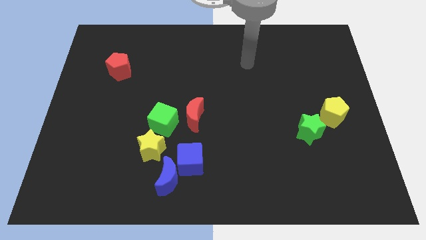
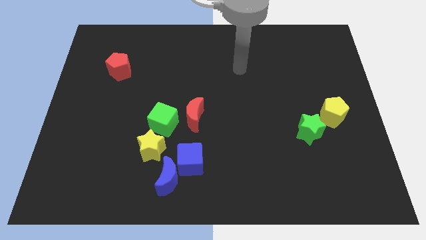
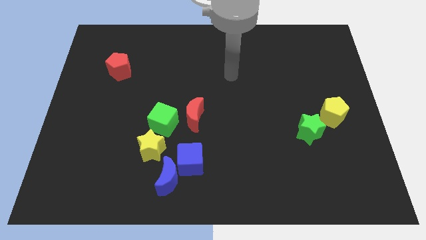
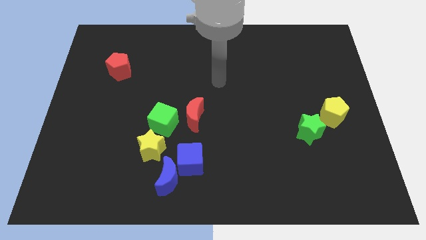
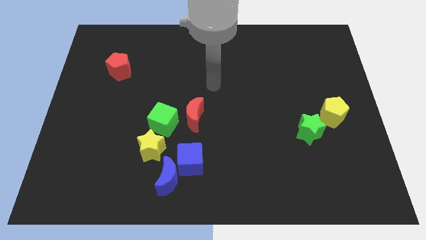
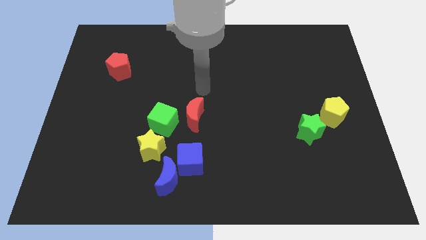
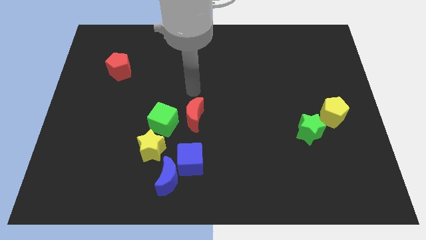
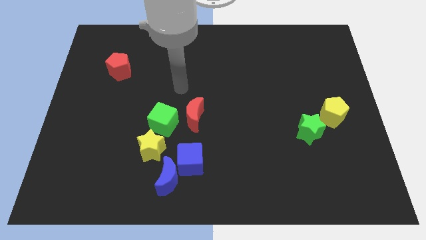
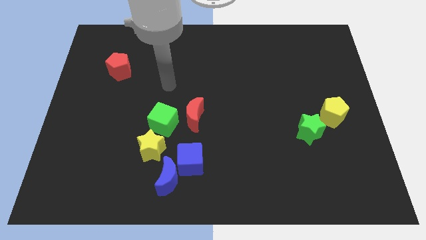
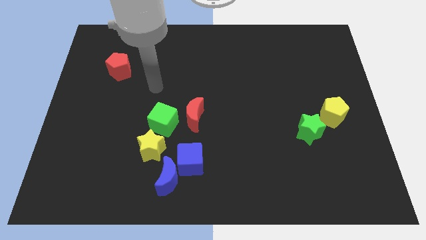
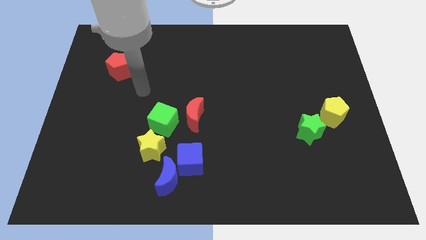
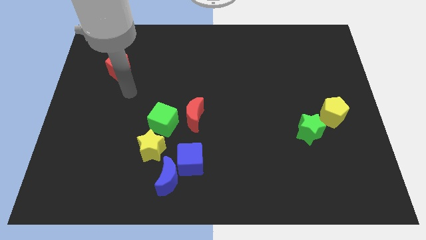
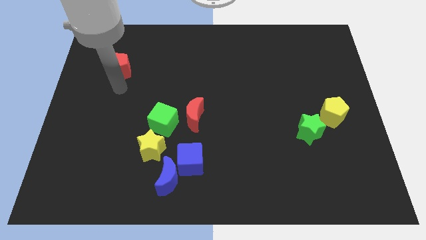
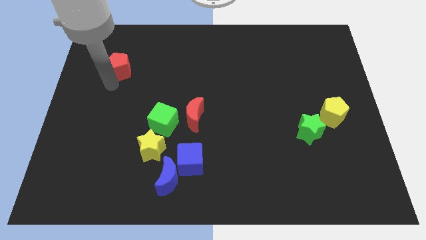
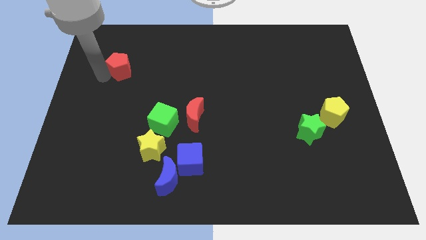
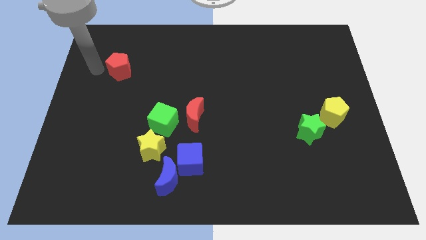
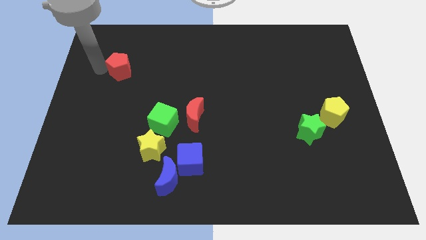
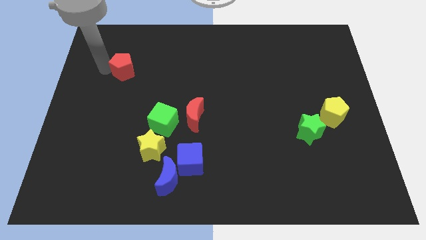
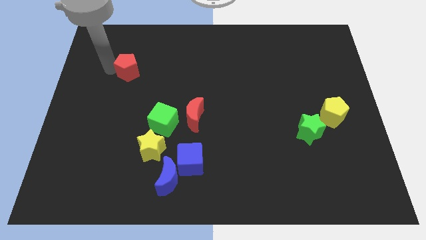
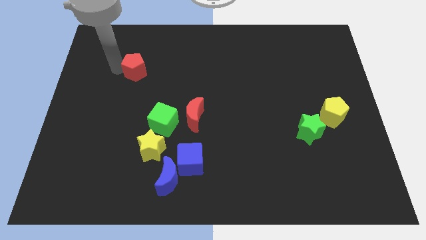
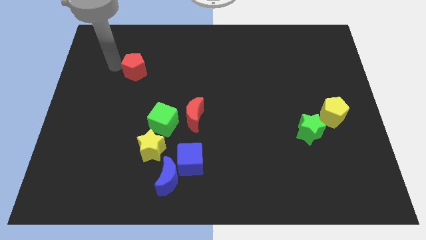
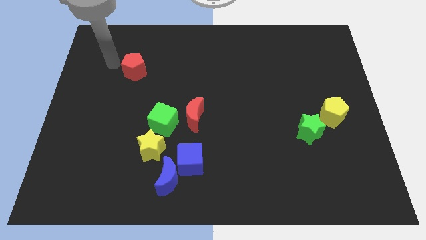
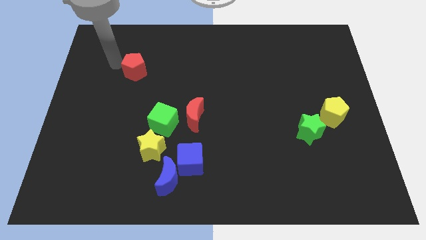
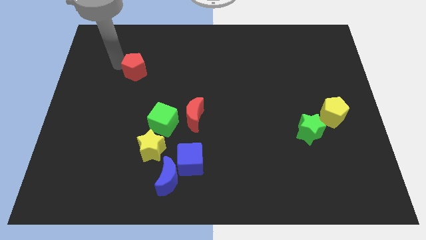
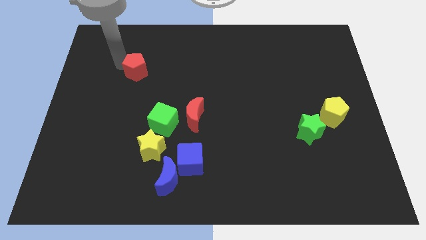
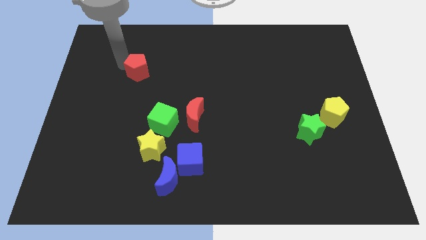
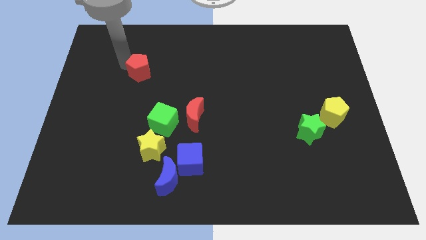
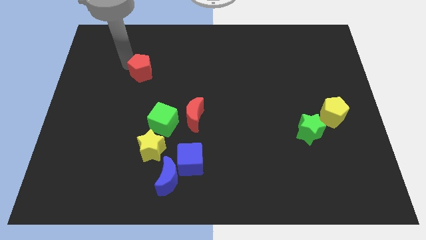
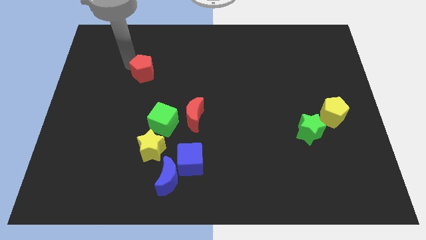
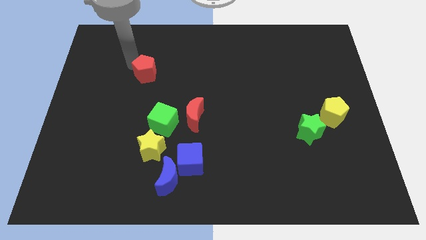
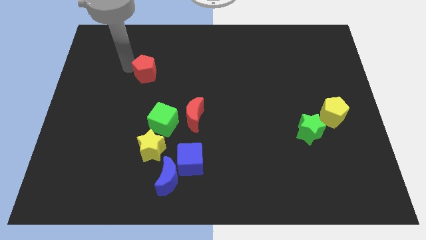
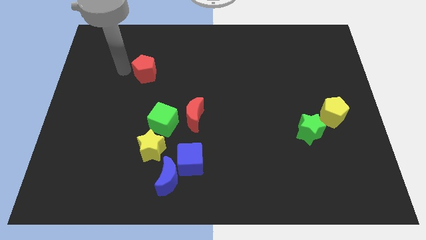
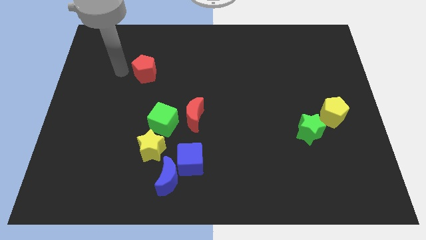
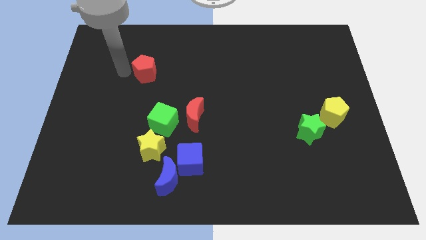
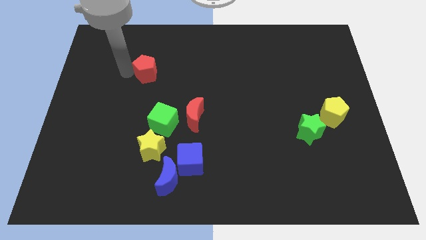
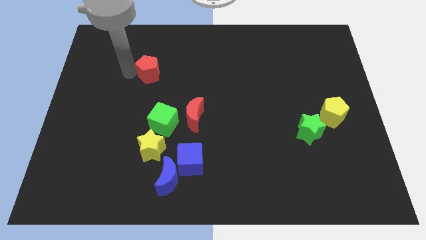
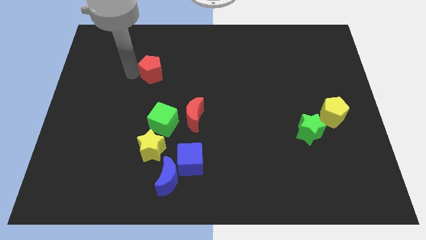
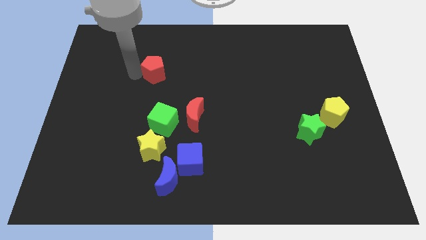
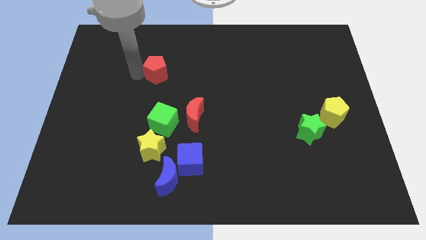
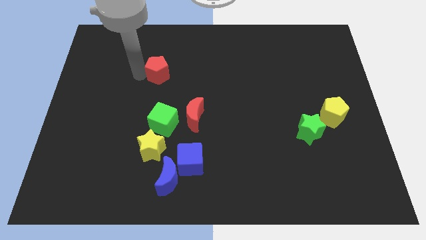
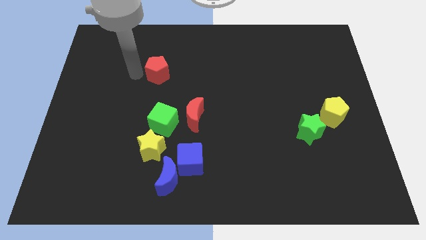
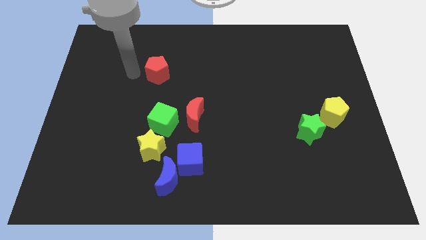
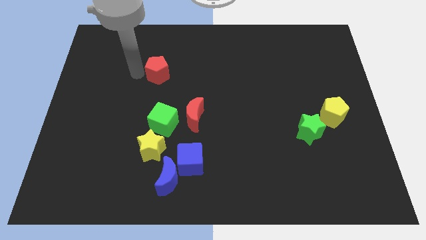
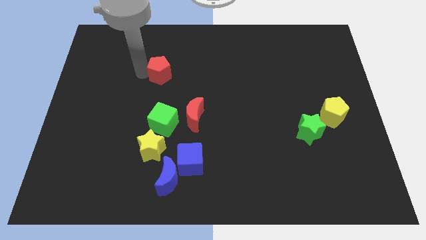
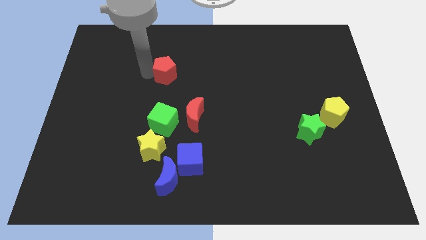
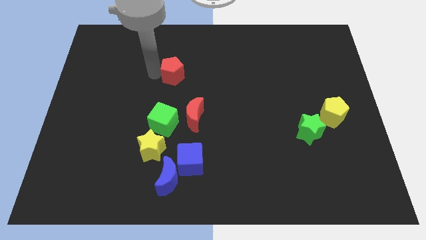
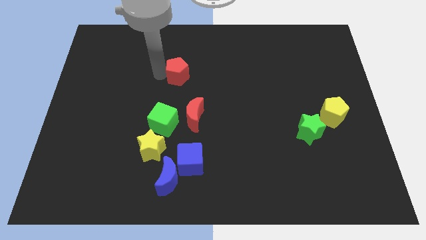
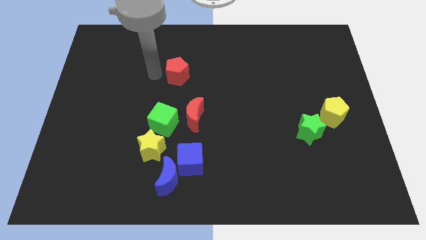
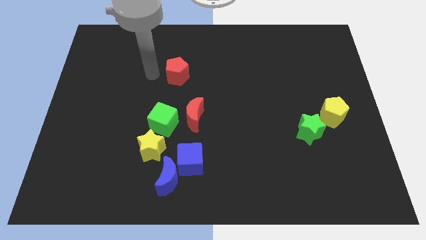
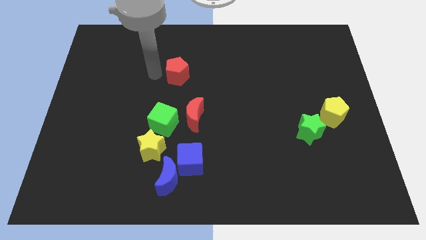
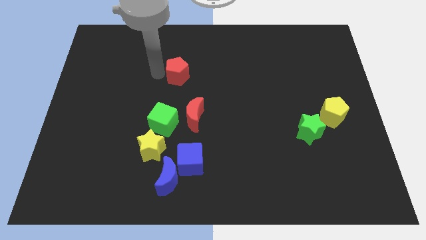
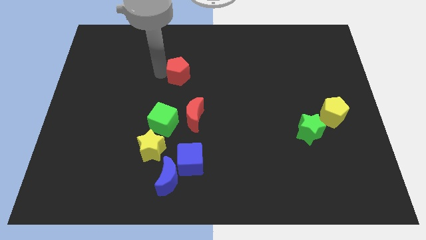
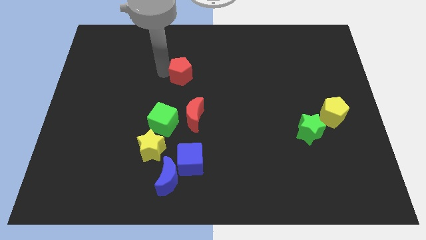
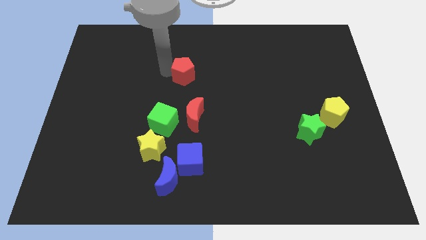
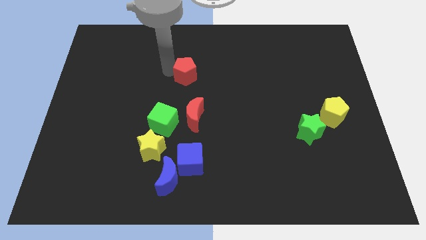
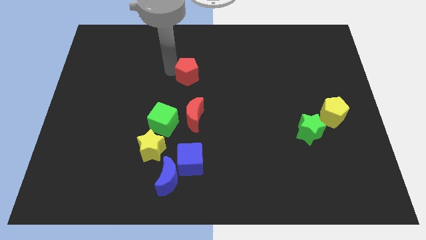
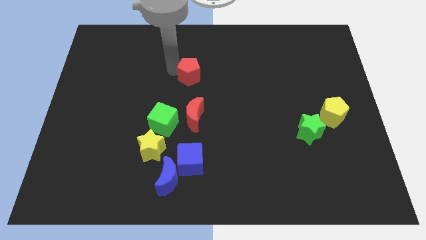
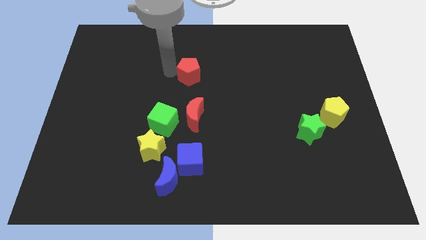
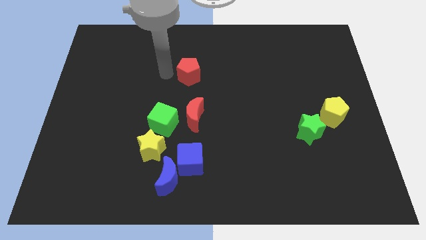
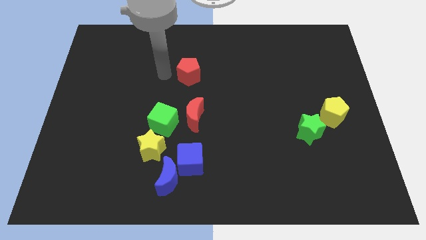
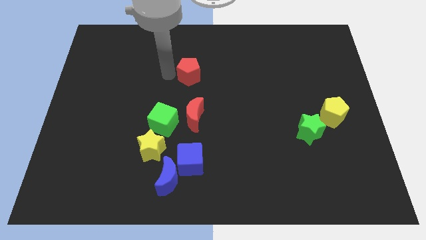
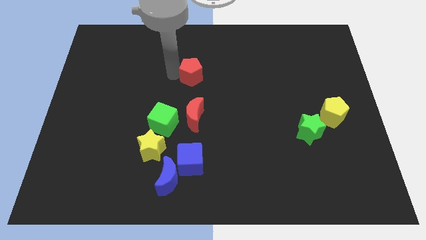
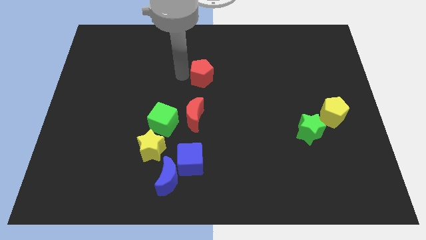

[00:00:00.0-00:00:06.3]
slide the red pentagon right

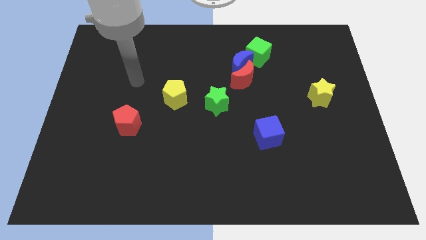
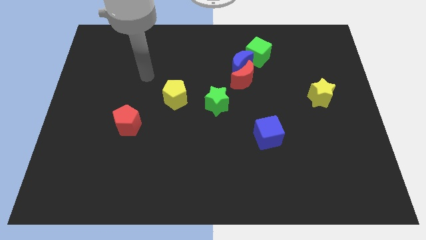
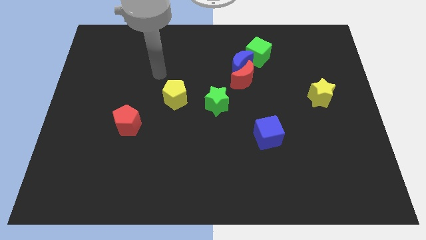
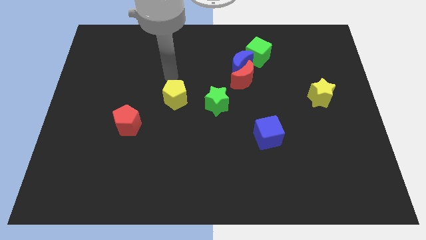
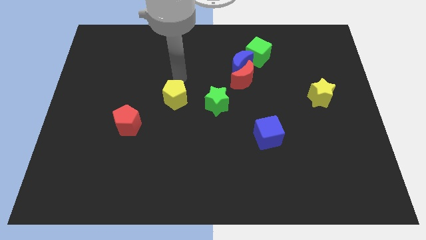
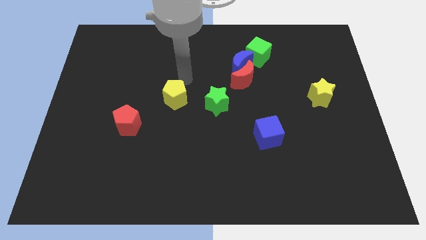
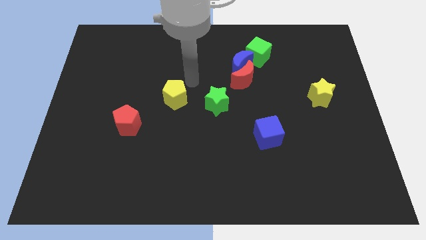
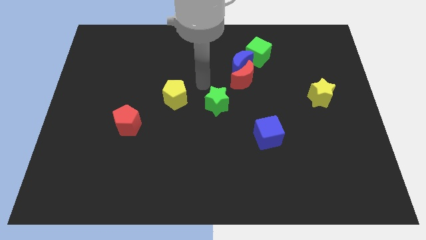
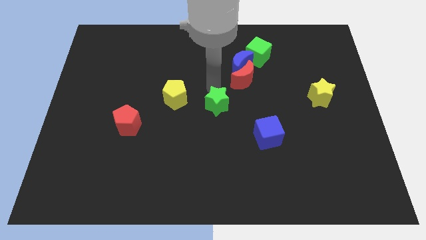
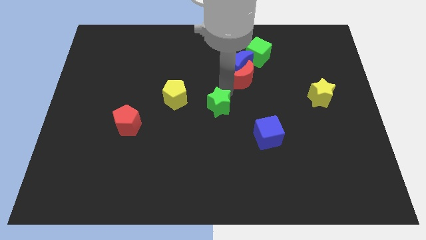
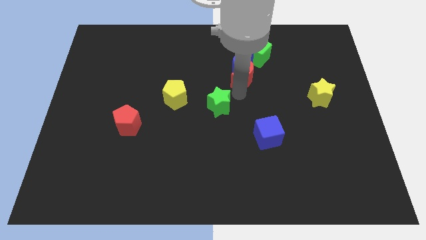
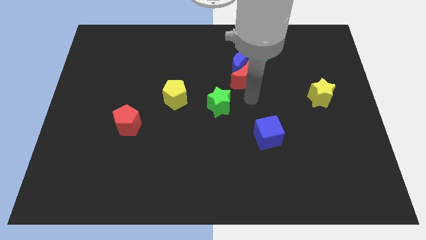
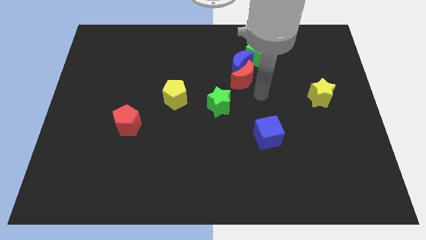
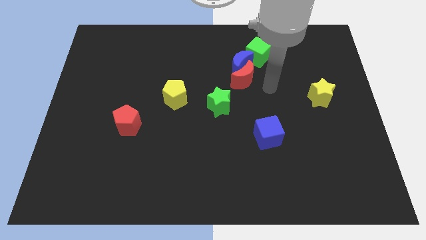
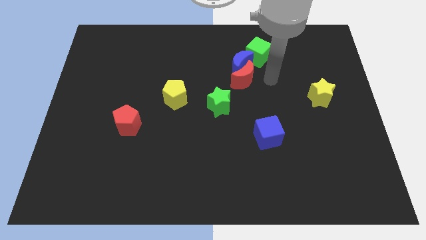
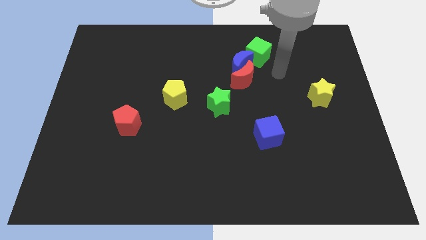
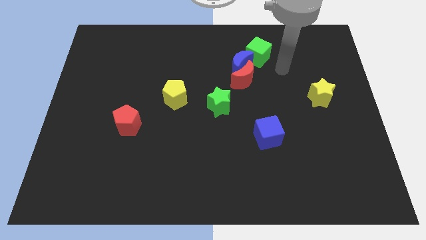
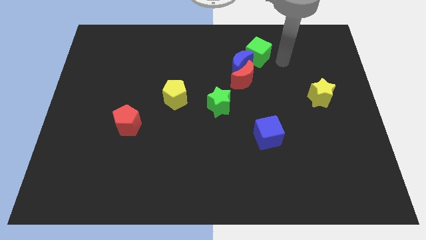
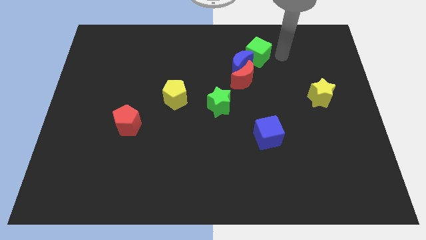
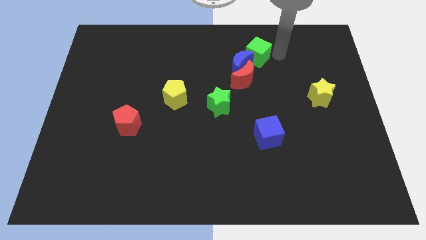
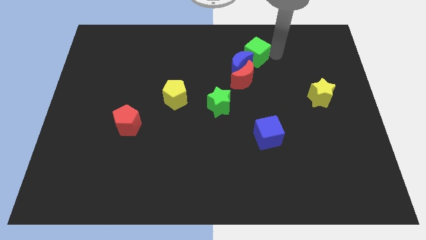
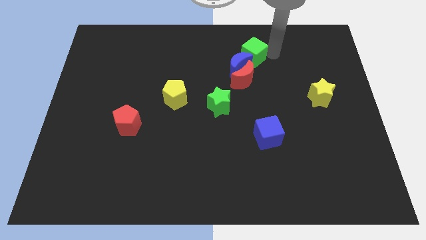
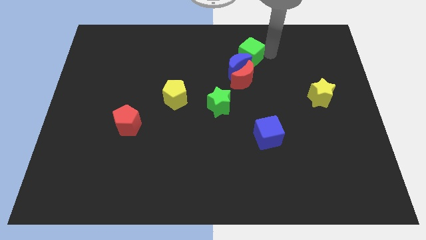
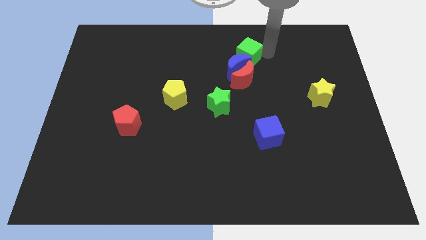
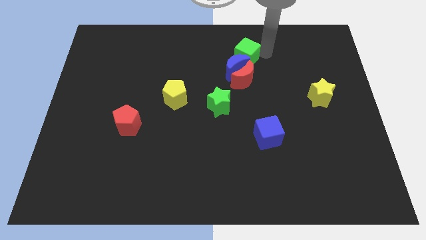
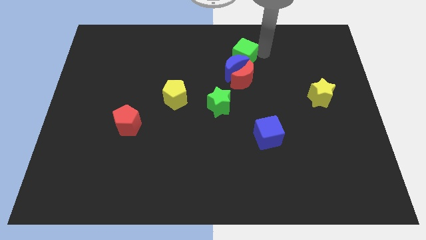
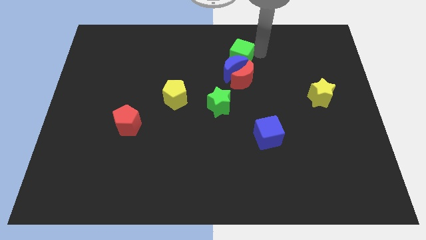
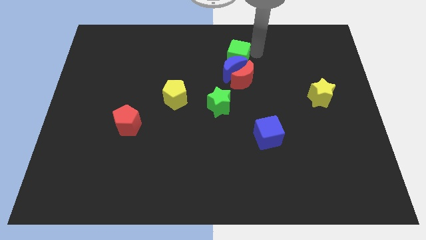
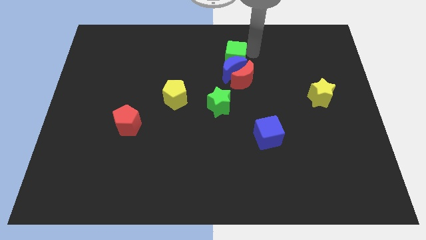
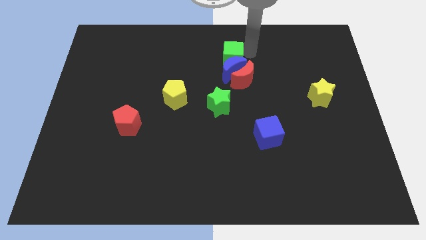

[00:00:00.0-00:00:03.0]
move the green cube to the left a little bit
